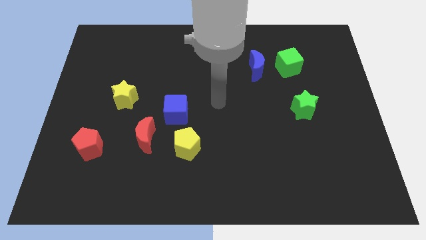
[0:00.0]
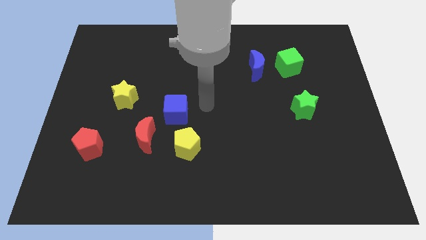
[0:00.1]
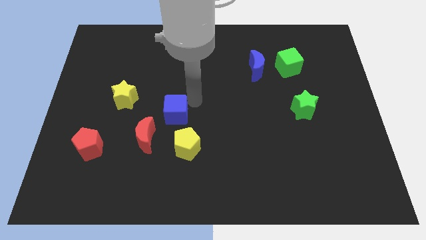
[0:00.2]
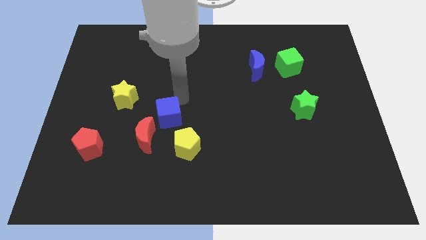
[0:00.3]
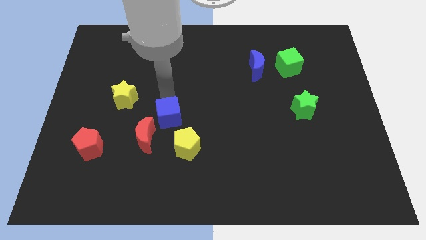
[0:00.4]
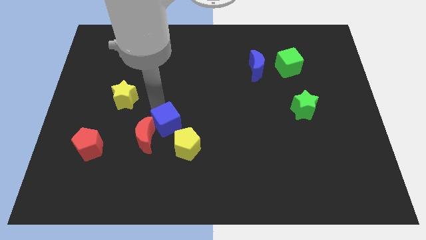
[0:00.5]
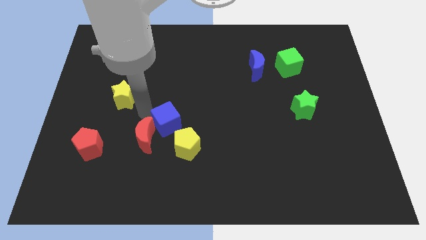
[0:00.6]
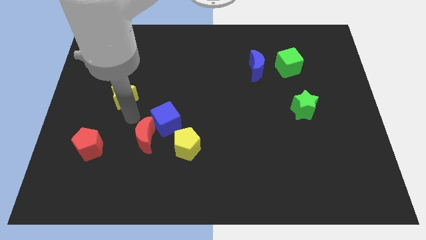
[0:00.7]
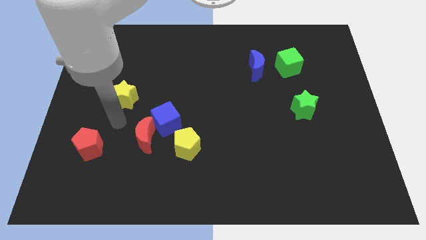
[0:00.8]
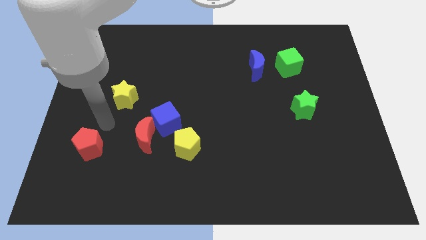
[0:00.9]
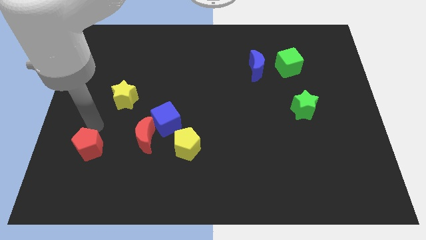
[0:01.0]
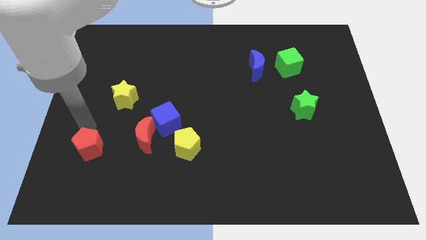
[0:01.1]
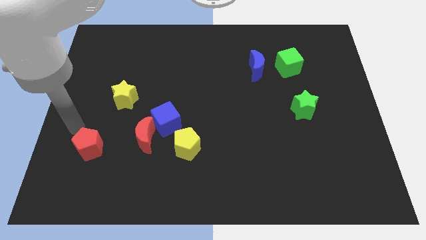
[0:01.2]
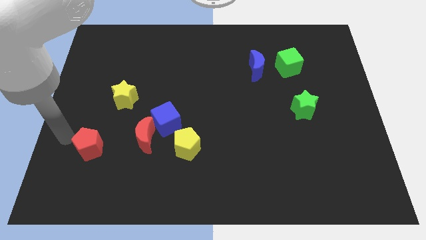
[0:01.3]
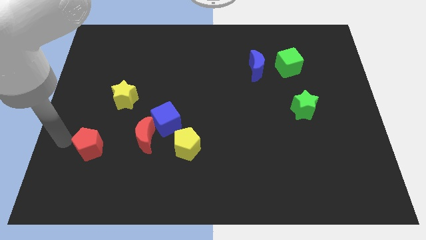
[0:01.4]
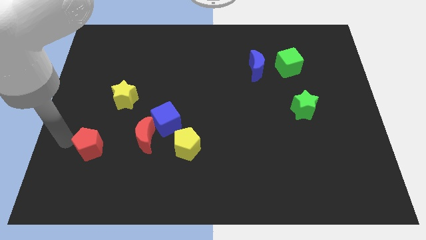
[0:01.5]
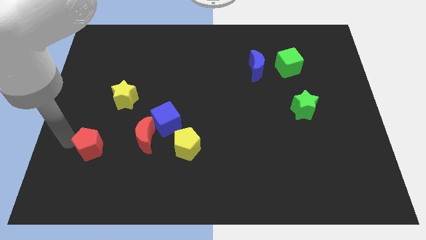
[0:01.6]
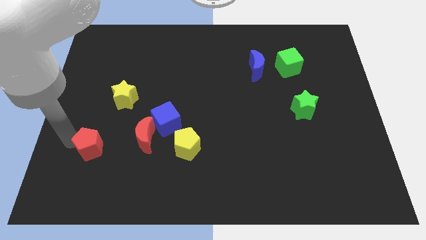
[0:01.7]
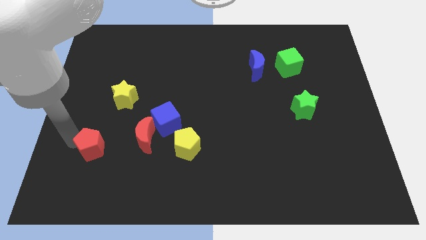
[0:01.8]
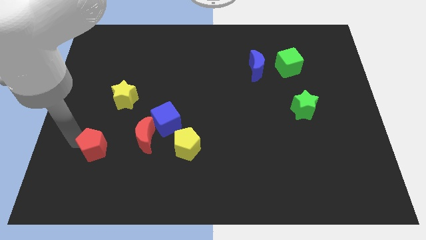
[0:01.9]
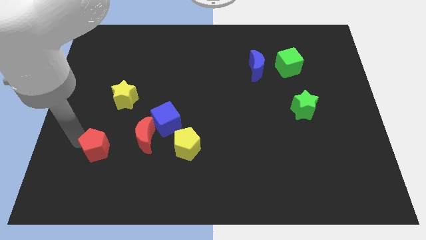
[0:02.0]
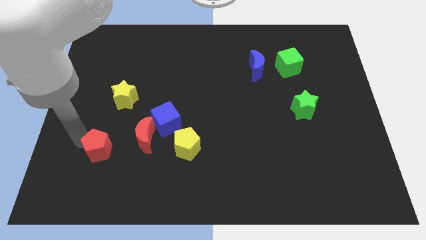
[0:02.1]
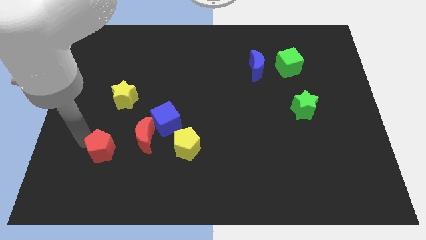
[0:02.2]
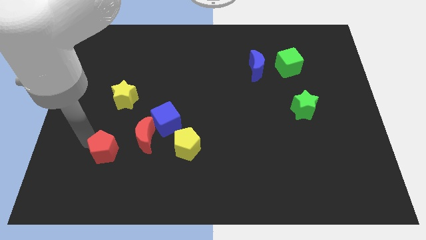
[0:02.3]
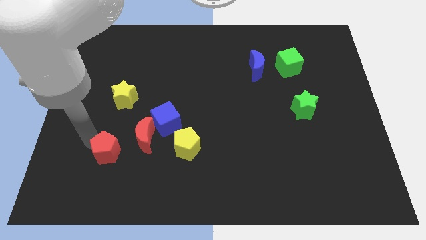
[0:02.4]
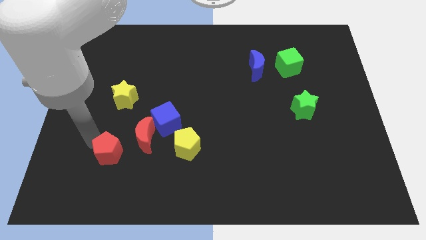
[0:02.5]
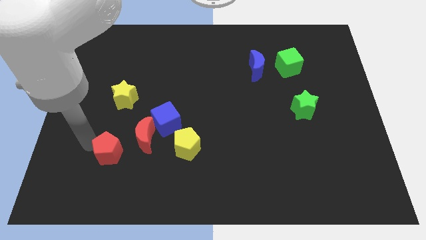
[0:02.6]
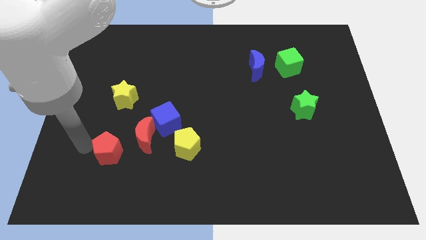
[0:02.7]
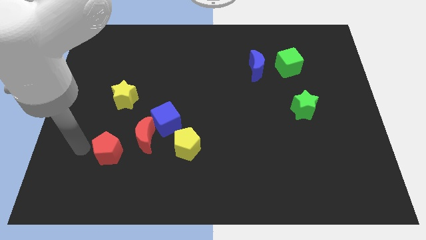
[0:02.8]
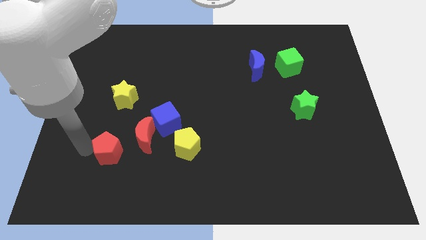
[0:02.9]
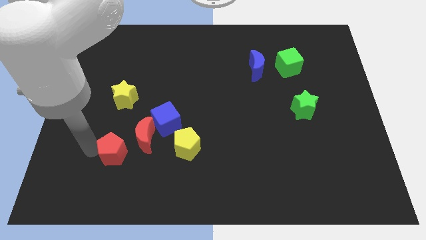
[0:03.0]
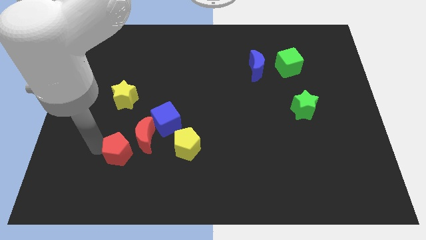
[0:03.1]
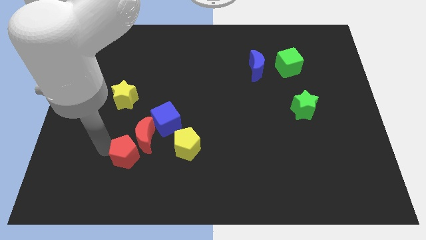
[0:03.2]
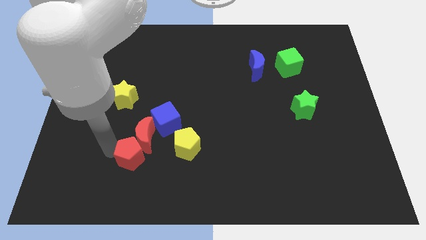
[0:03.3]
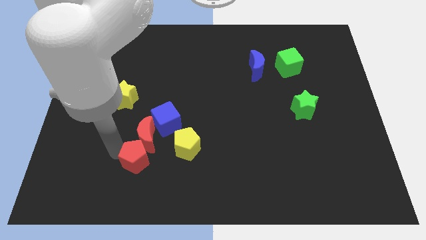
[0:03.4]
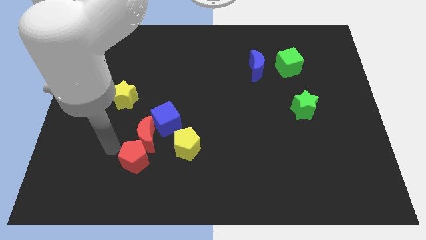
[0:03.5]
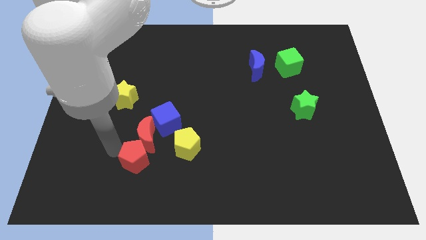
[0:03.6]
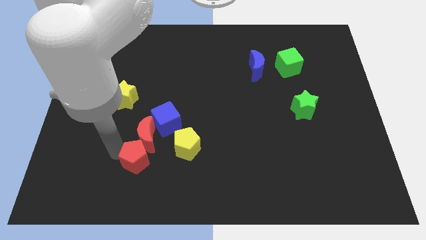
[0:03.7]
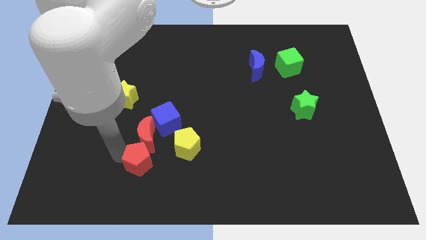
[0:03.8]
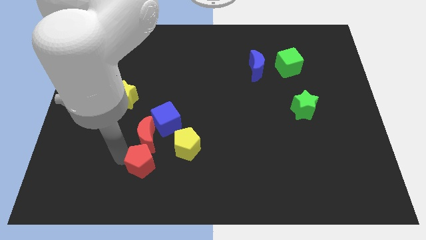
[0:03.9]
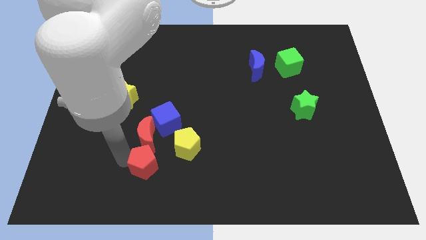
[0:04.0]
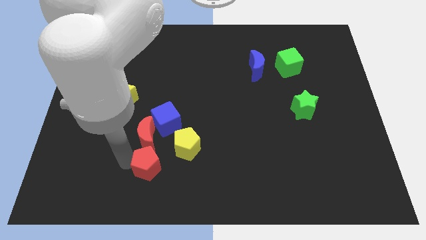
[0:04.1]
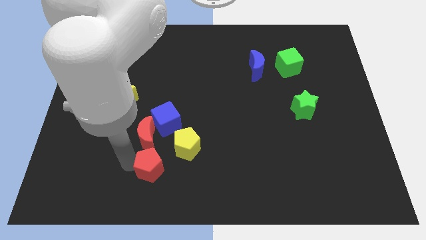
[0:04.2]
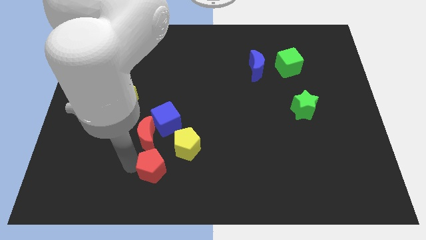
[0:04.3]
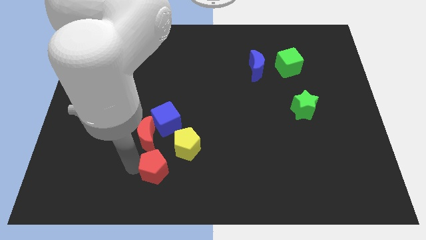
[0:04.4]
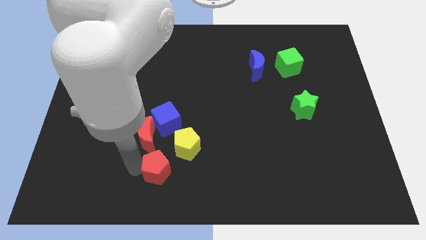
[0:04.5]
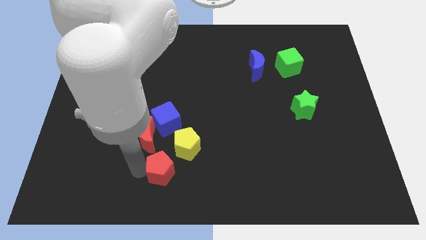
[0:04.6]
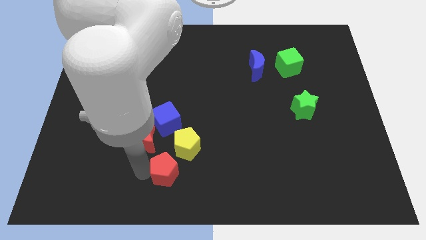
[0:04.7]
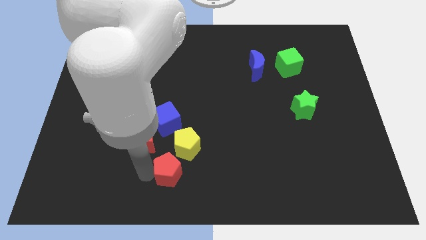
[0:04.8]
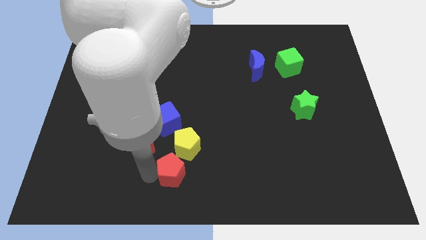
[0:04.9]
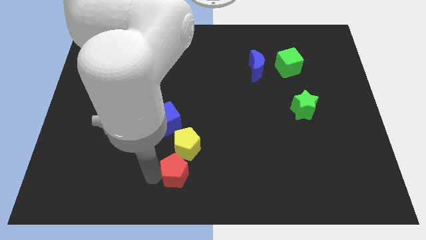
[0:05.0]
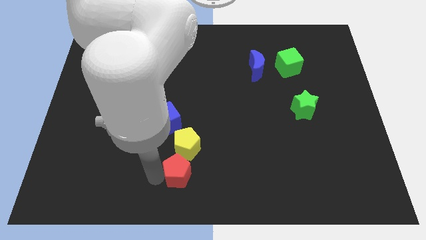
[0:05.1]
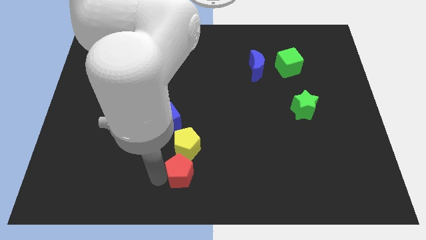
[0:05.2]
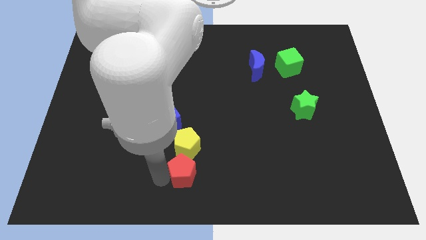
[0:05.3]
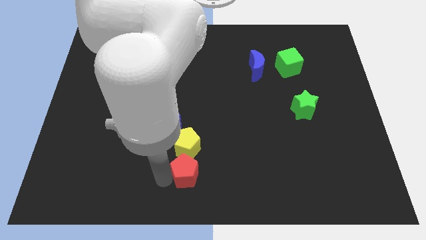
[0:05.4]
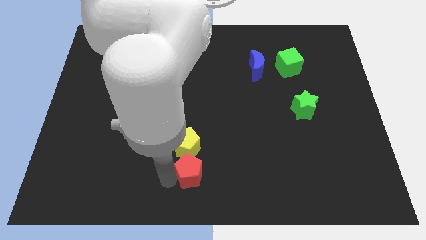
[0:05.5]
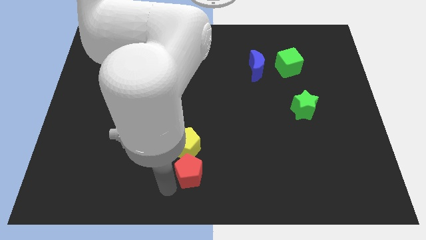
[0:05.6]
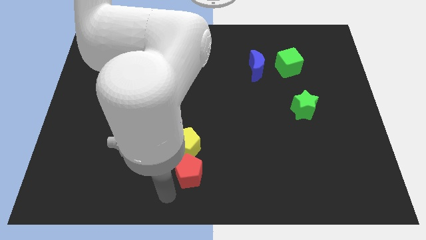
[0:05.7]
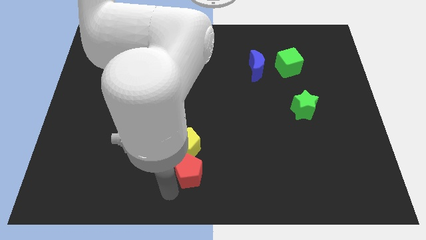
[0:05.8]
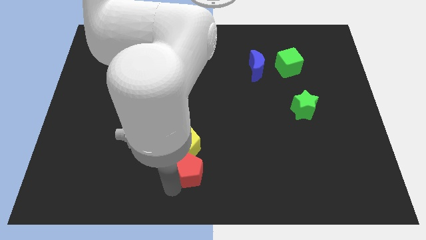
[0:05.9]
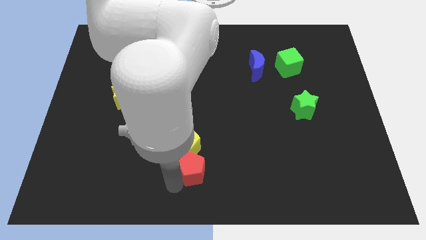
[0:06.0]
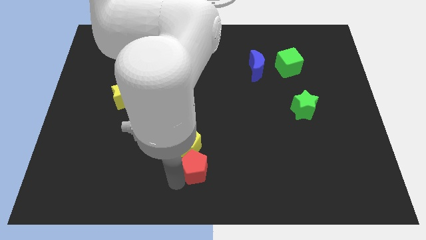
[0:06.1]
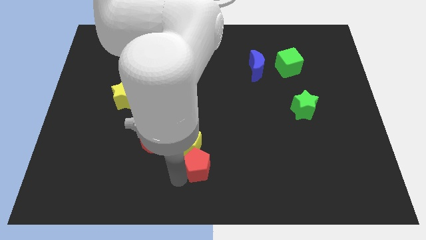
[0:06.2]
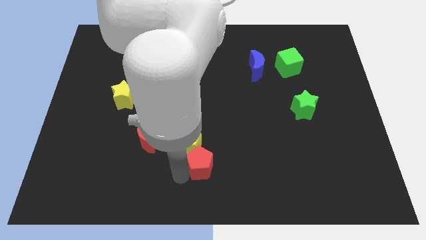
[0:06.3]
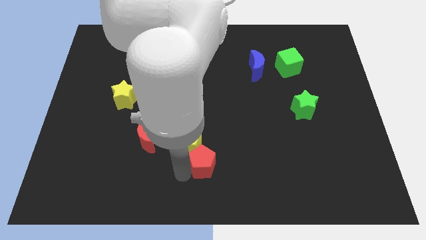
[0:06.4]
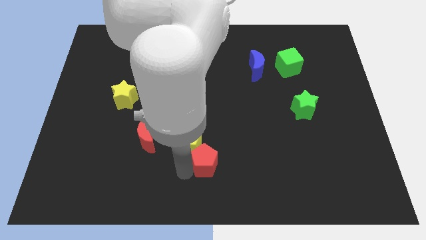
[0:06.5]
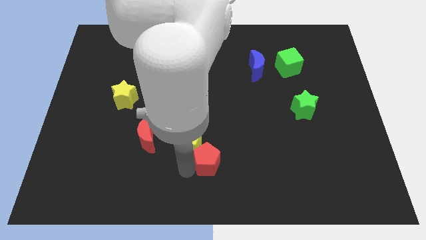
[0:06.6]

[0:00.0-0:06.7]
slide the red pentagon just right of the yellow pentagon

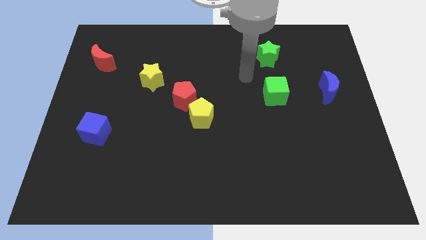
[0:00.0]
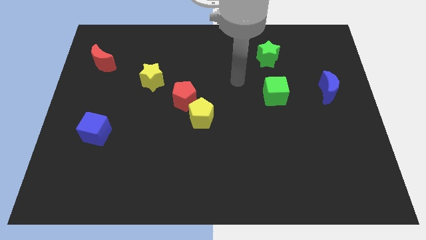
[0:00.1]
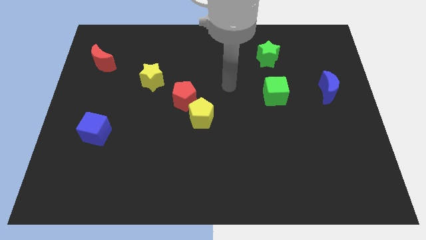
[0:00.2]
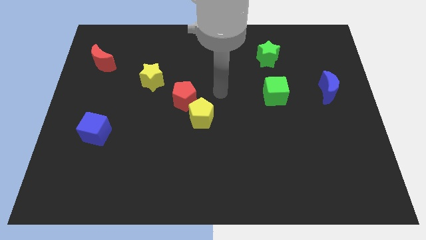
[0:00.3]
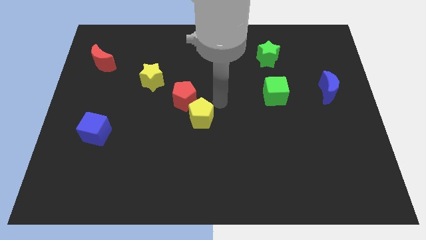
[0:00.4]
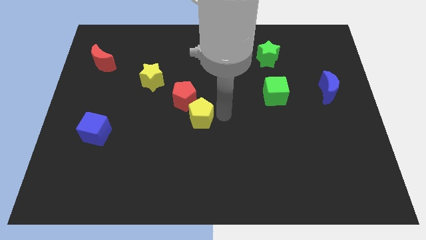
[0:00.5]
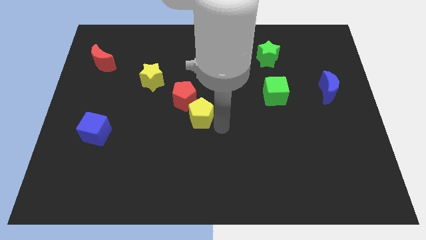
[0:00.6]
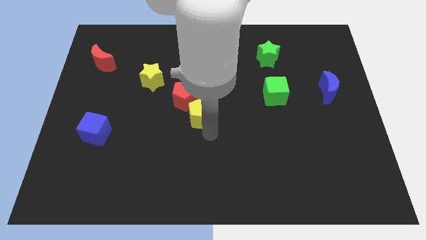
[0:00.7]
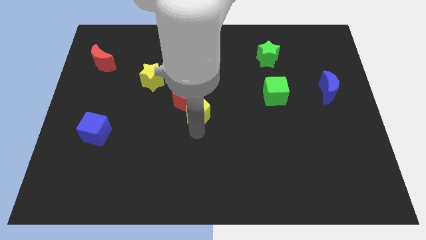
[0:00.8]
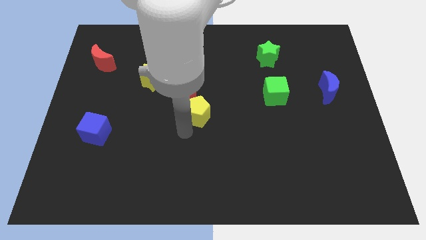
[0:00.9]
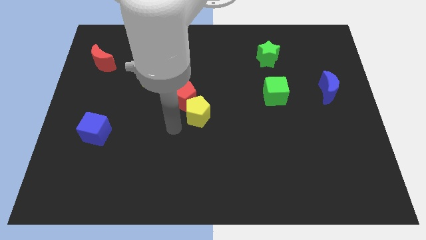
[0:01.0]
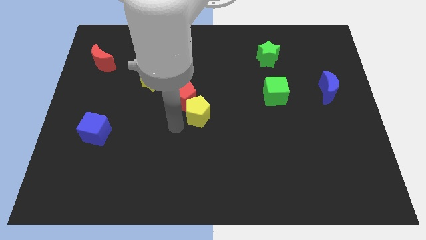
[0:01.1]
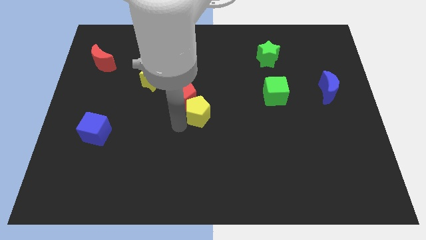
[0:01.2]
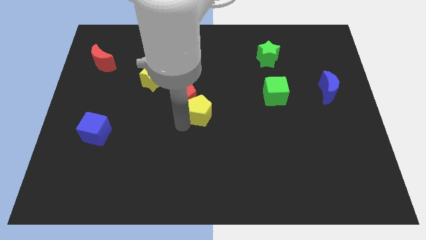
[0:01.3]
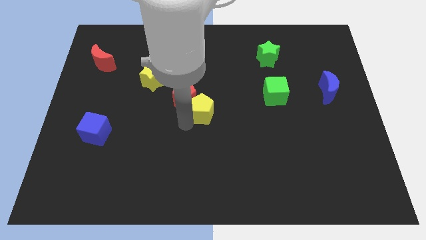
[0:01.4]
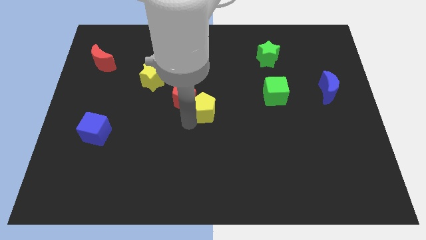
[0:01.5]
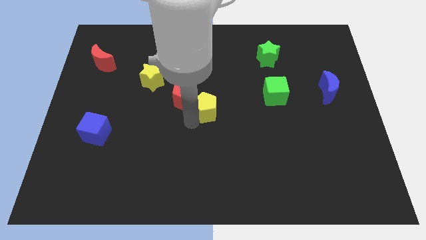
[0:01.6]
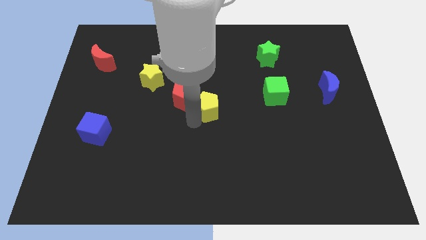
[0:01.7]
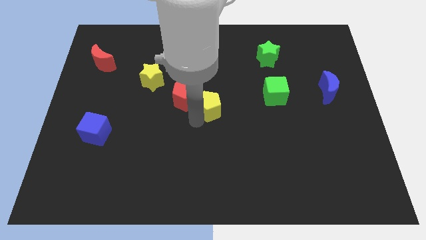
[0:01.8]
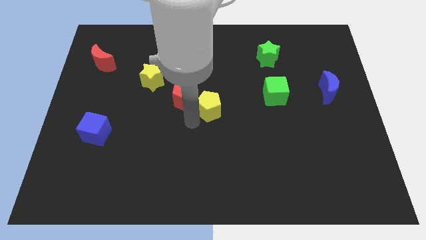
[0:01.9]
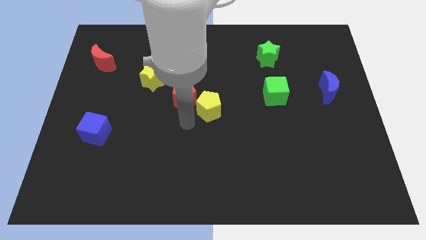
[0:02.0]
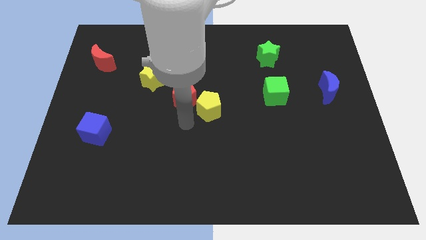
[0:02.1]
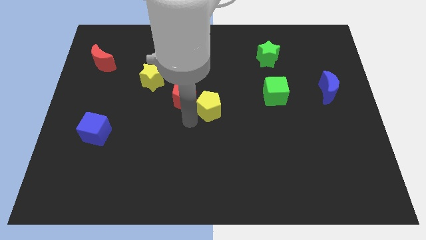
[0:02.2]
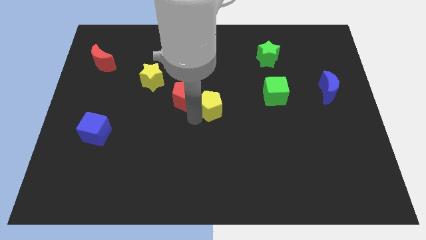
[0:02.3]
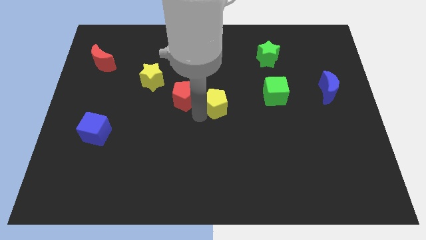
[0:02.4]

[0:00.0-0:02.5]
slide the yellow pentagon just left of the green cube
